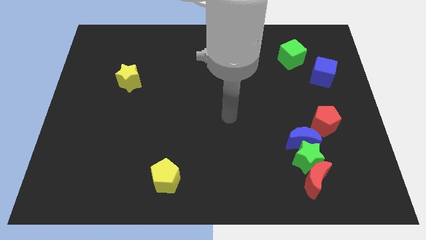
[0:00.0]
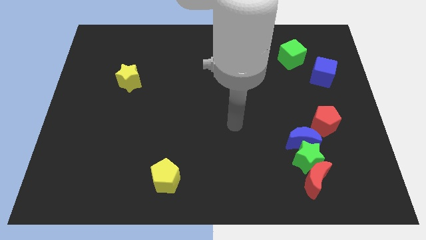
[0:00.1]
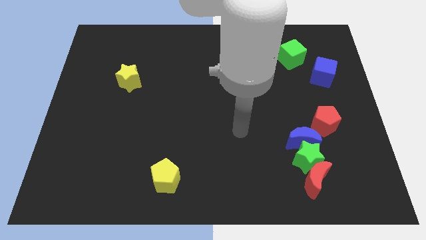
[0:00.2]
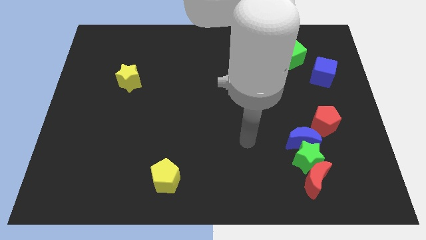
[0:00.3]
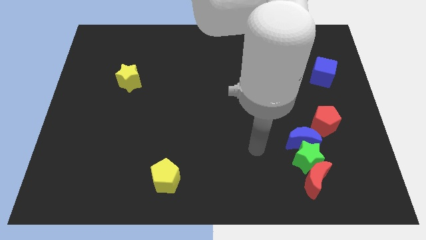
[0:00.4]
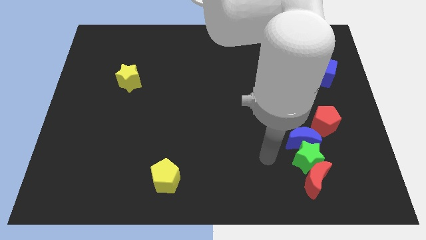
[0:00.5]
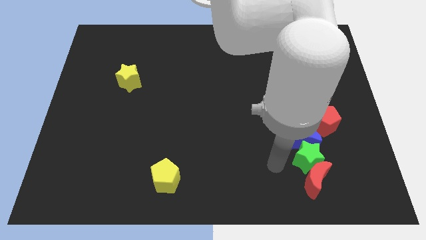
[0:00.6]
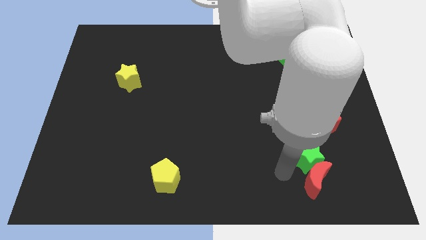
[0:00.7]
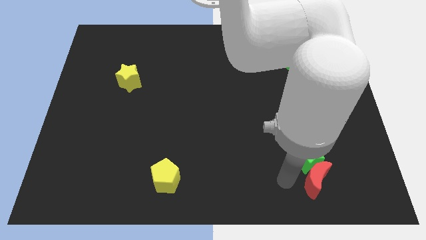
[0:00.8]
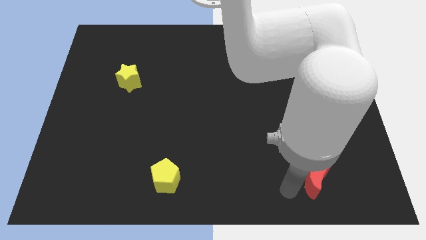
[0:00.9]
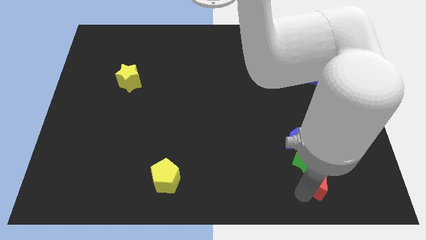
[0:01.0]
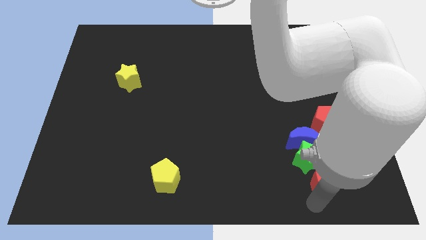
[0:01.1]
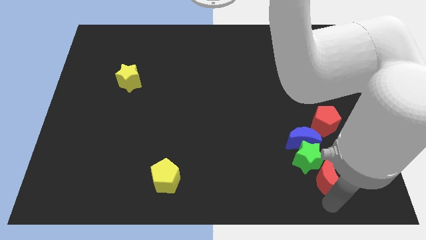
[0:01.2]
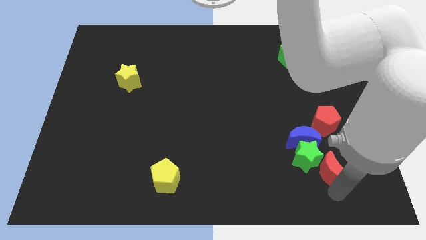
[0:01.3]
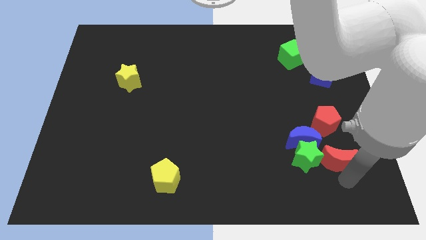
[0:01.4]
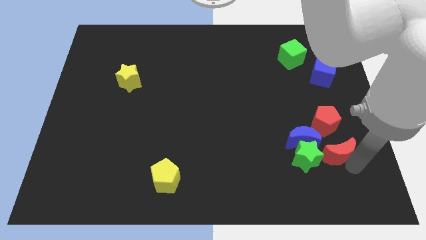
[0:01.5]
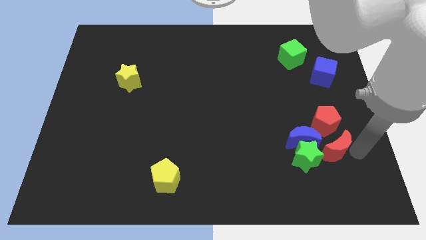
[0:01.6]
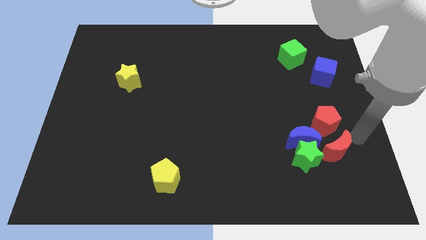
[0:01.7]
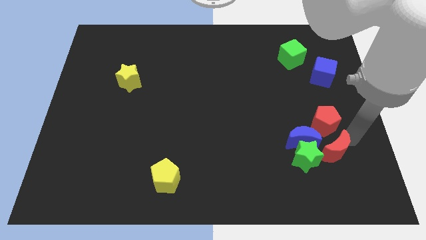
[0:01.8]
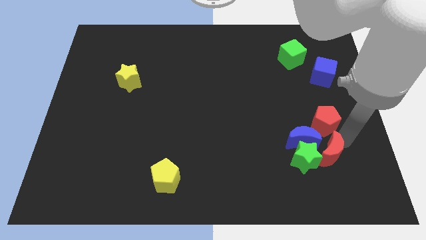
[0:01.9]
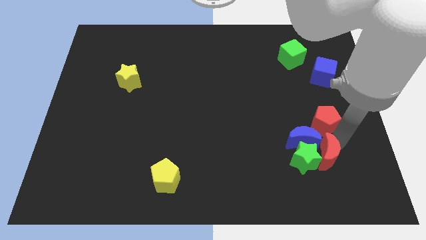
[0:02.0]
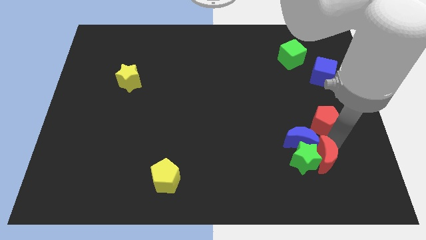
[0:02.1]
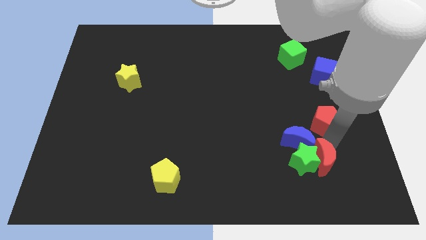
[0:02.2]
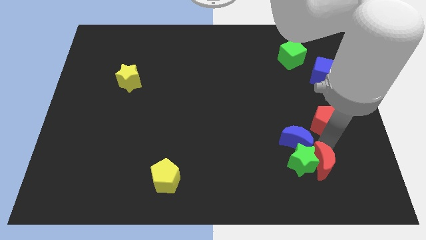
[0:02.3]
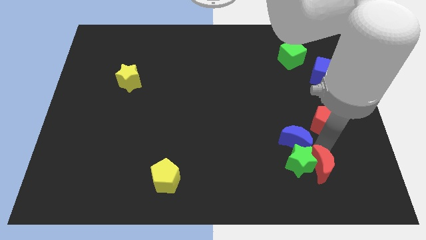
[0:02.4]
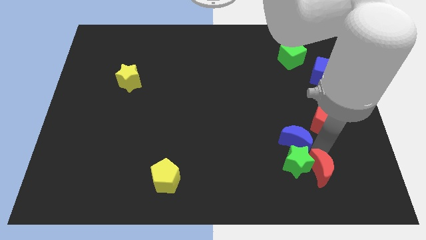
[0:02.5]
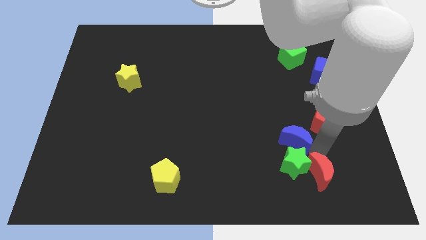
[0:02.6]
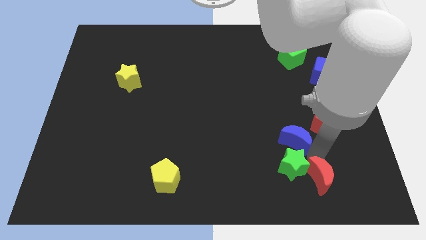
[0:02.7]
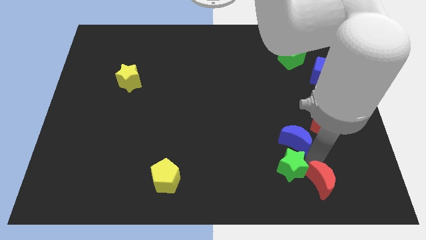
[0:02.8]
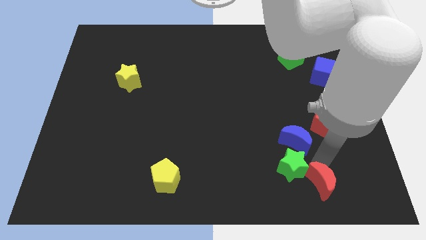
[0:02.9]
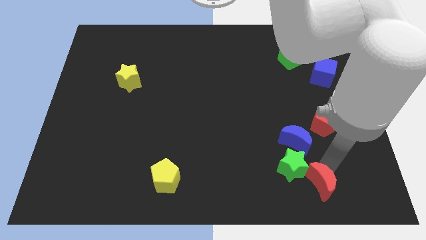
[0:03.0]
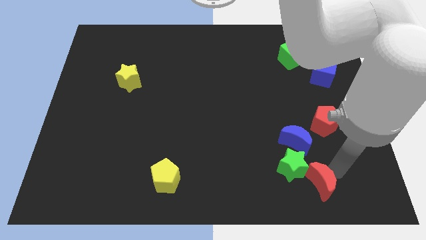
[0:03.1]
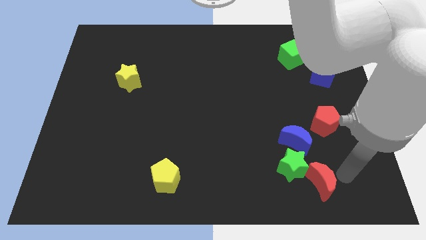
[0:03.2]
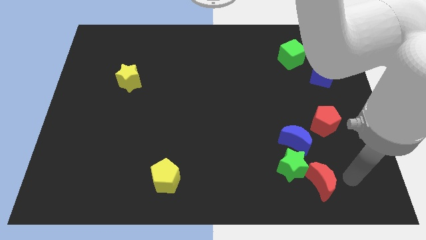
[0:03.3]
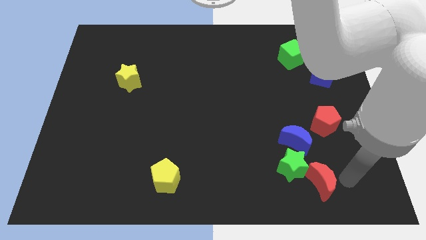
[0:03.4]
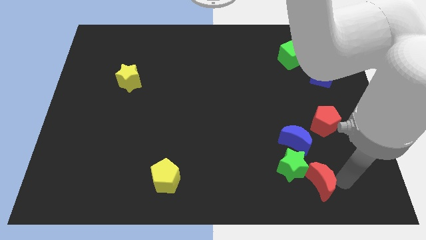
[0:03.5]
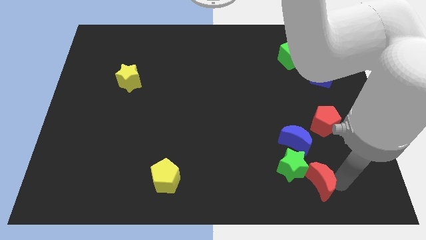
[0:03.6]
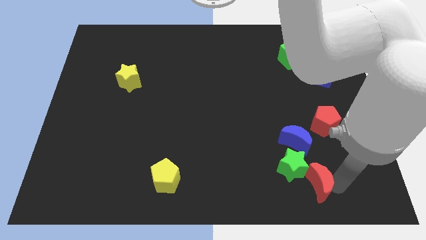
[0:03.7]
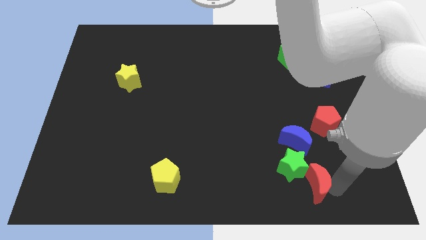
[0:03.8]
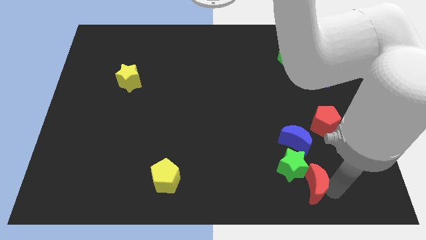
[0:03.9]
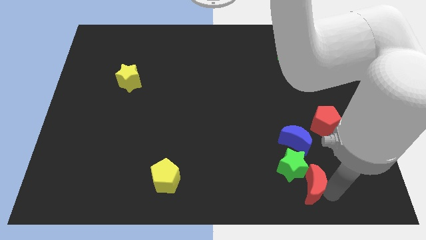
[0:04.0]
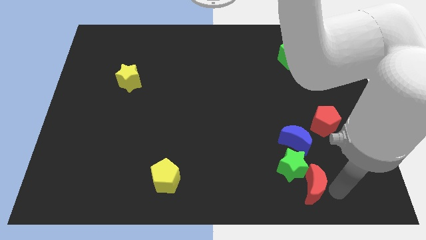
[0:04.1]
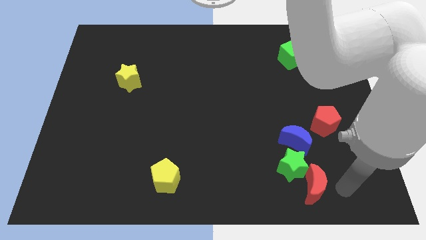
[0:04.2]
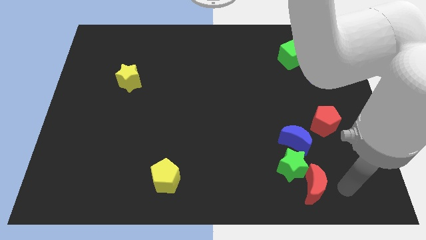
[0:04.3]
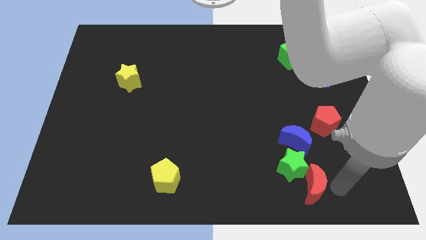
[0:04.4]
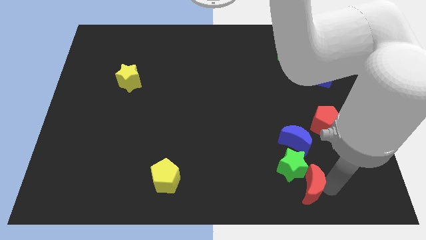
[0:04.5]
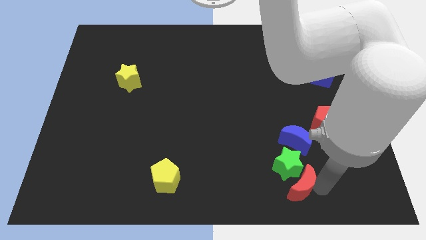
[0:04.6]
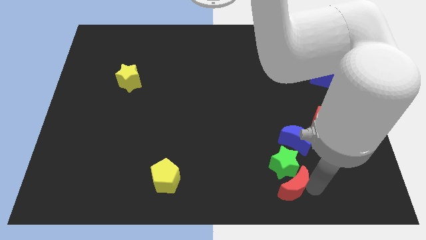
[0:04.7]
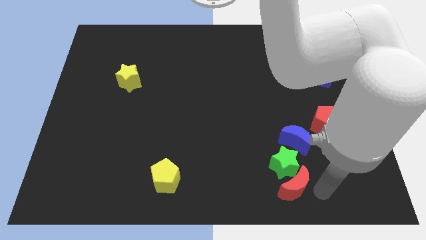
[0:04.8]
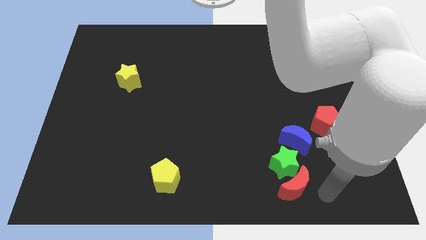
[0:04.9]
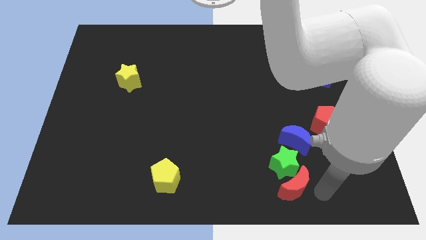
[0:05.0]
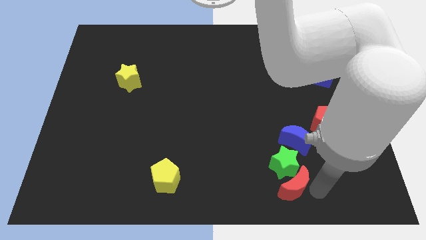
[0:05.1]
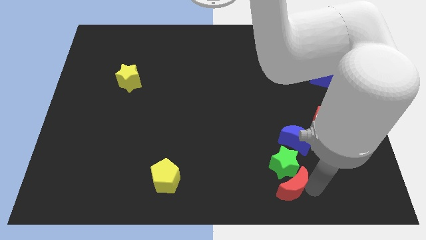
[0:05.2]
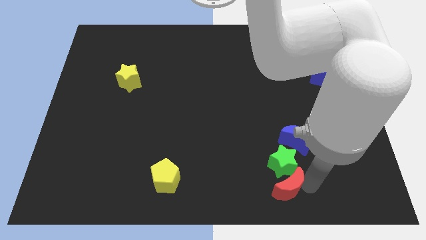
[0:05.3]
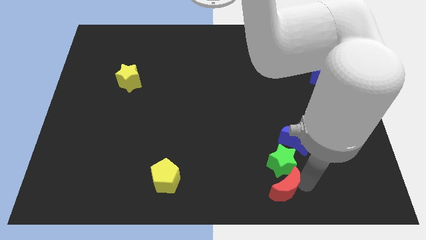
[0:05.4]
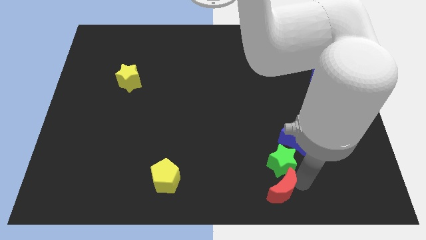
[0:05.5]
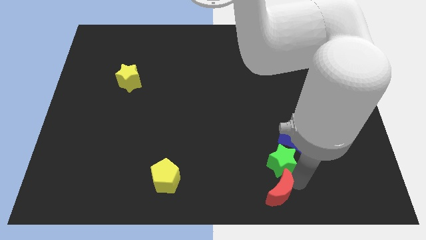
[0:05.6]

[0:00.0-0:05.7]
slightly push the red moon to the left

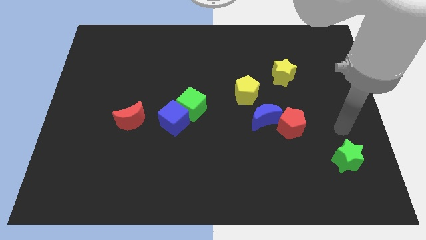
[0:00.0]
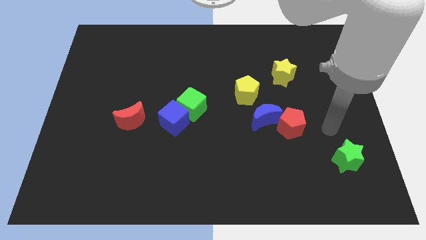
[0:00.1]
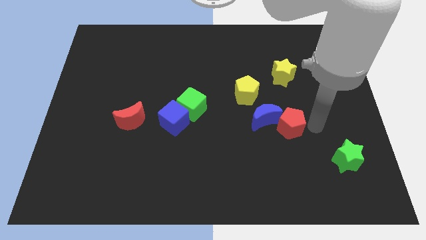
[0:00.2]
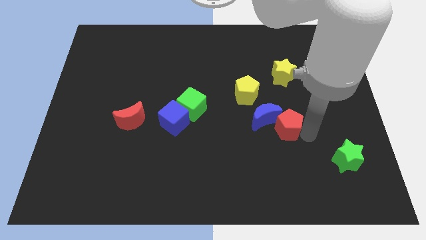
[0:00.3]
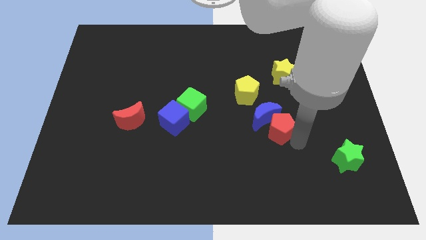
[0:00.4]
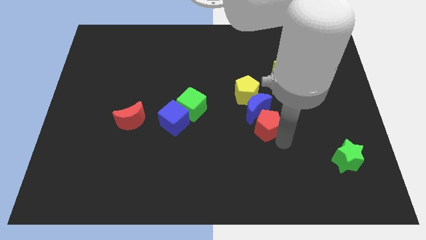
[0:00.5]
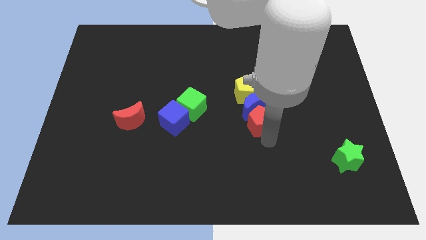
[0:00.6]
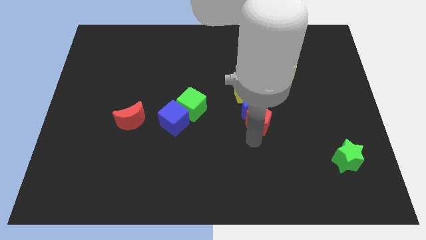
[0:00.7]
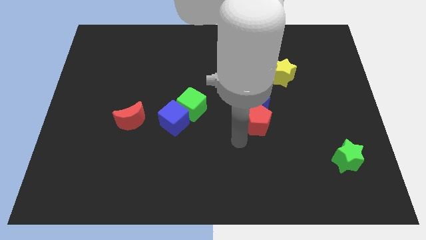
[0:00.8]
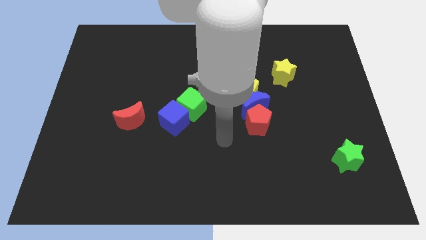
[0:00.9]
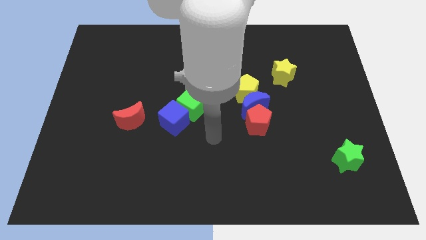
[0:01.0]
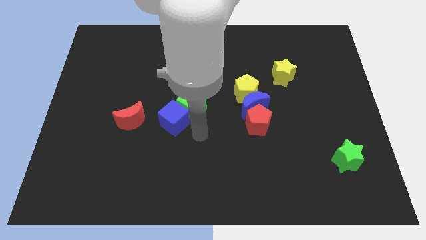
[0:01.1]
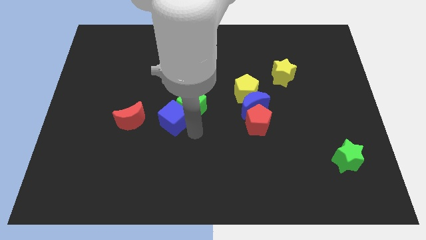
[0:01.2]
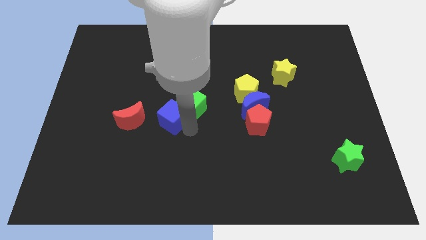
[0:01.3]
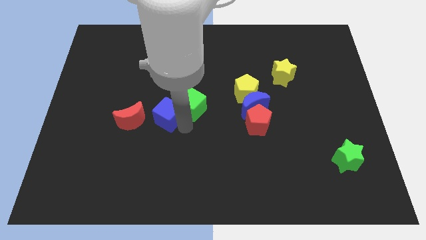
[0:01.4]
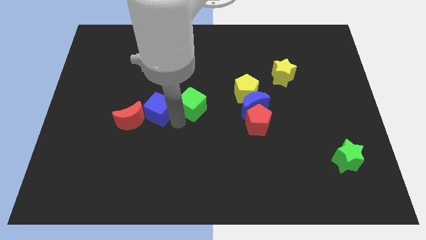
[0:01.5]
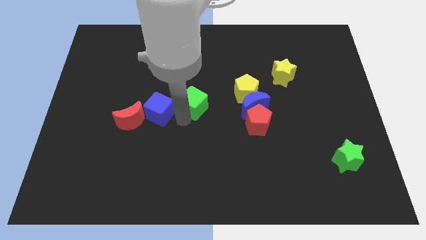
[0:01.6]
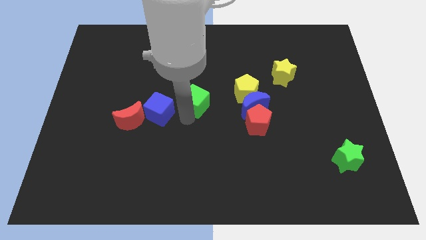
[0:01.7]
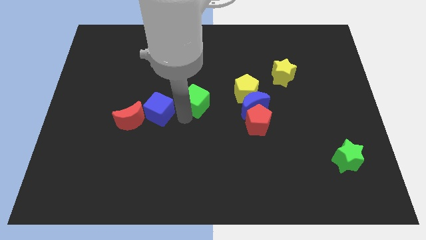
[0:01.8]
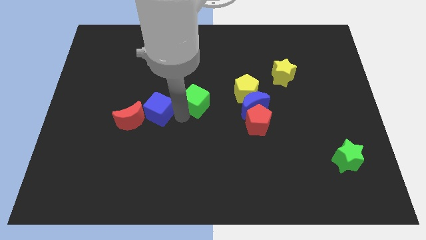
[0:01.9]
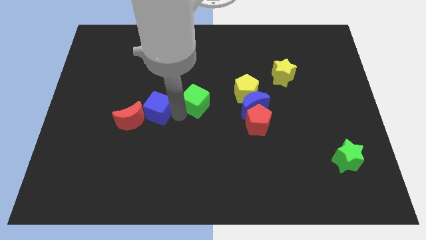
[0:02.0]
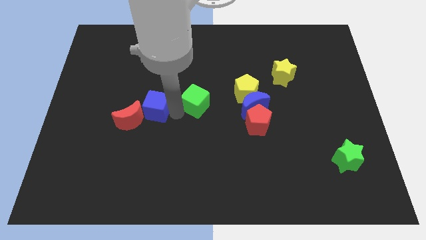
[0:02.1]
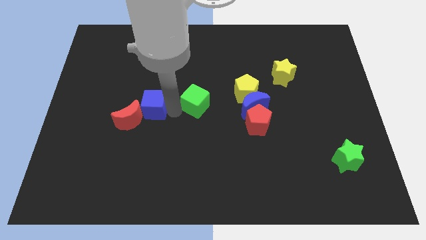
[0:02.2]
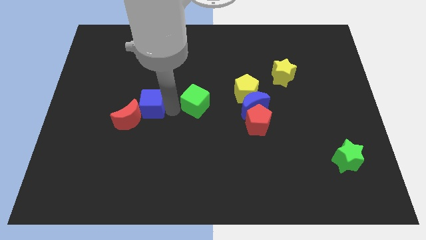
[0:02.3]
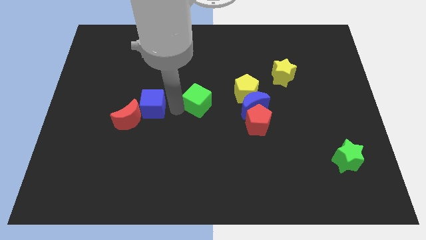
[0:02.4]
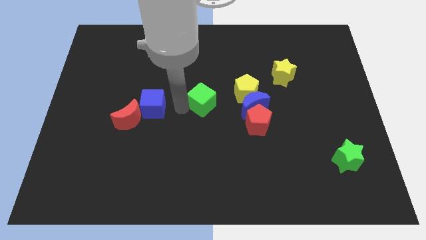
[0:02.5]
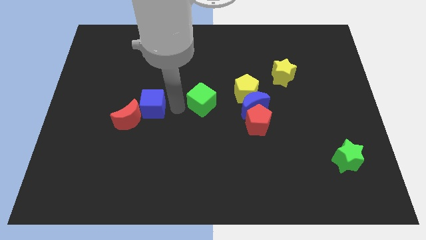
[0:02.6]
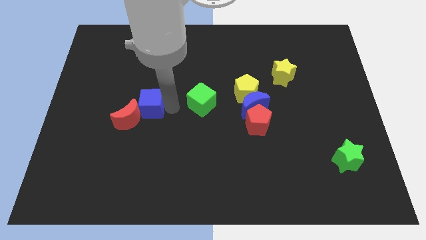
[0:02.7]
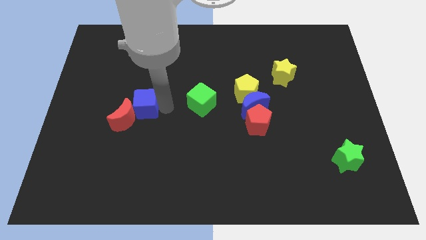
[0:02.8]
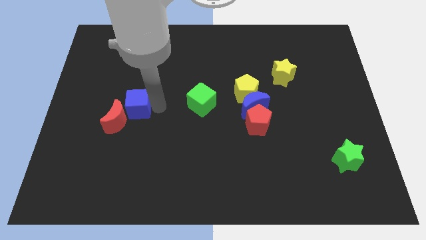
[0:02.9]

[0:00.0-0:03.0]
slide the blue cube to the left a little bit
